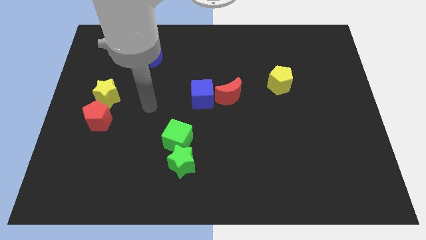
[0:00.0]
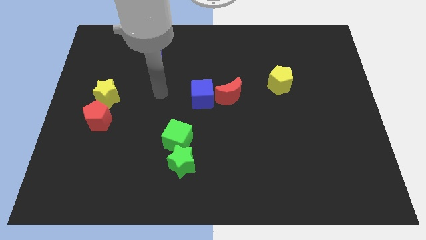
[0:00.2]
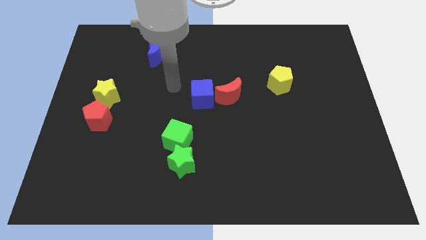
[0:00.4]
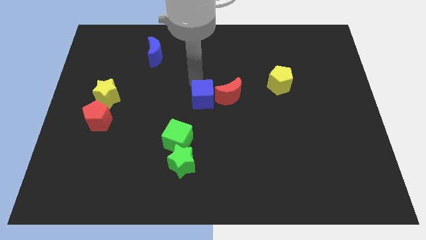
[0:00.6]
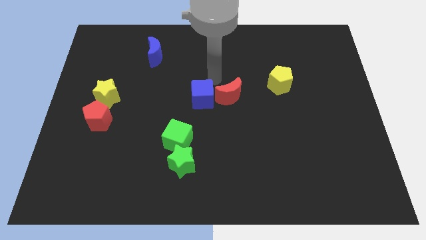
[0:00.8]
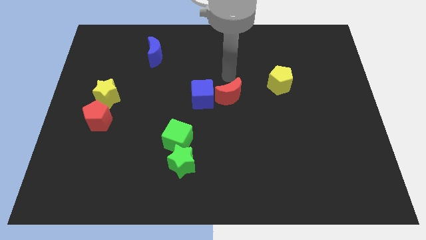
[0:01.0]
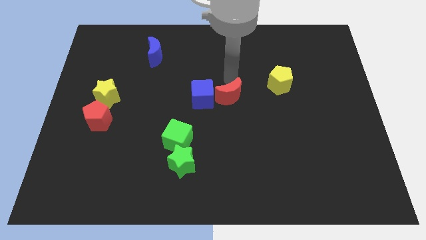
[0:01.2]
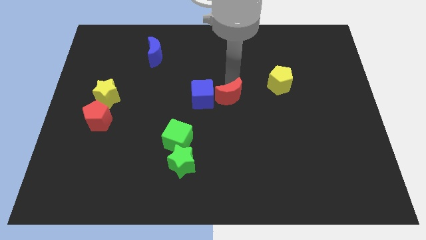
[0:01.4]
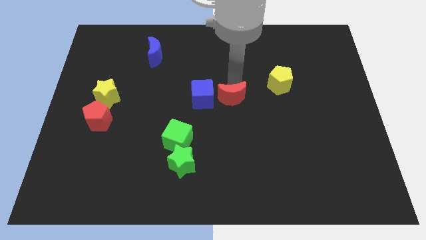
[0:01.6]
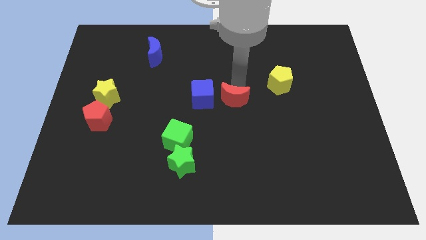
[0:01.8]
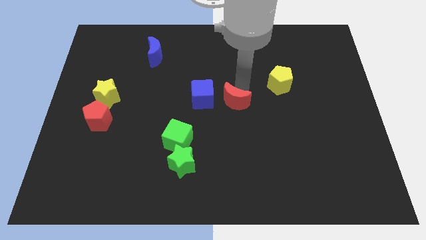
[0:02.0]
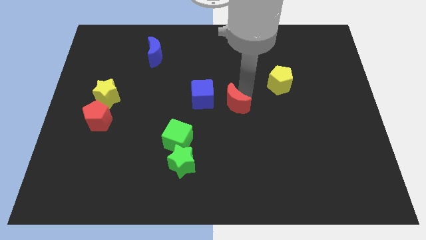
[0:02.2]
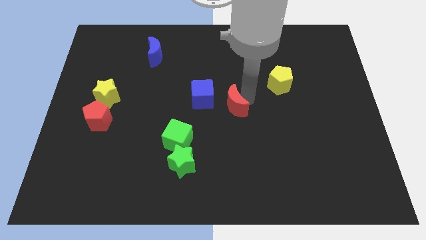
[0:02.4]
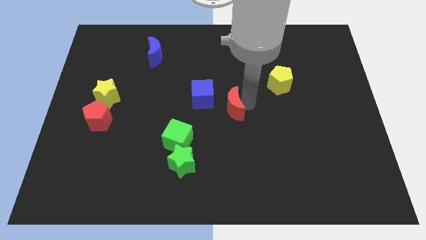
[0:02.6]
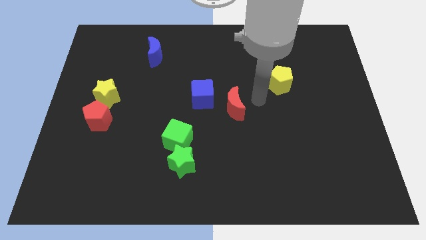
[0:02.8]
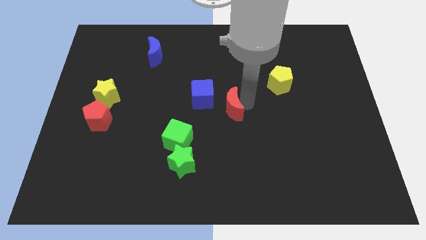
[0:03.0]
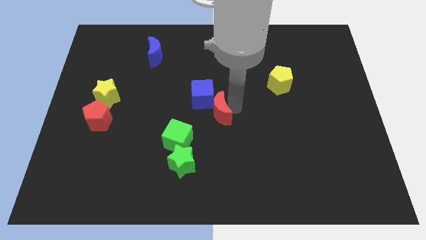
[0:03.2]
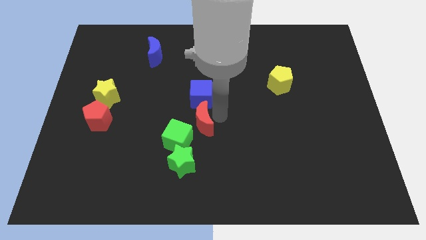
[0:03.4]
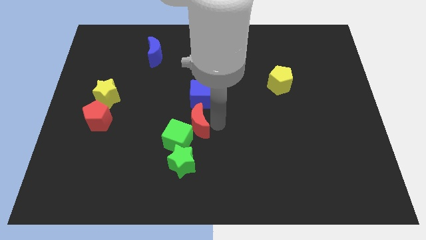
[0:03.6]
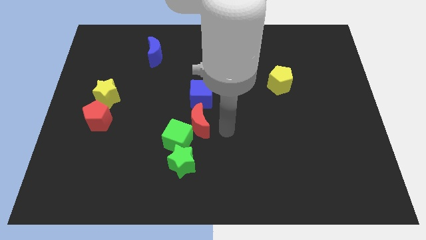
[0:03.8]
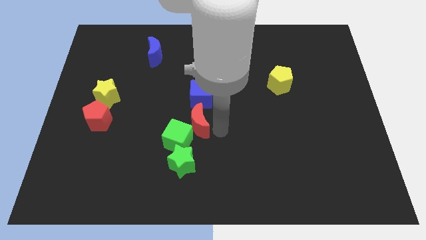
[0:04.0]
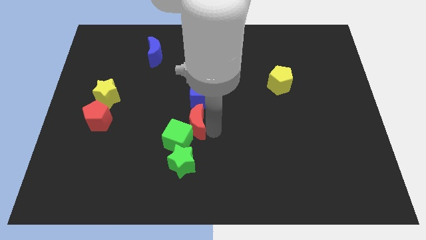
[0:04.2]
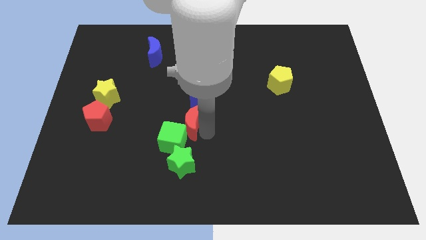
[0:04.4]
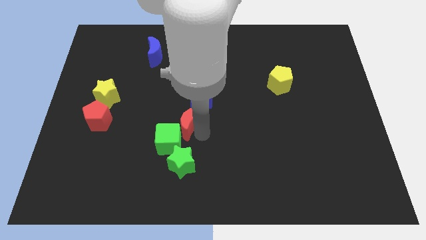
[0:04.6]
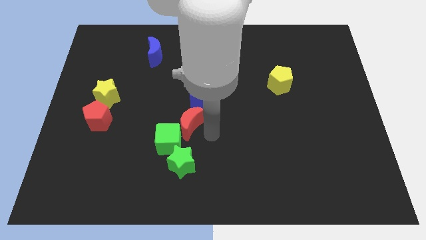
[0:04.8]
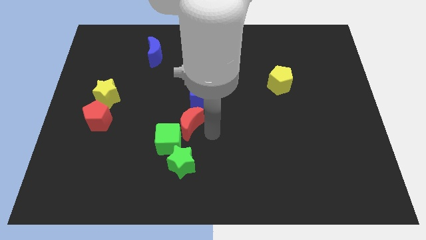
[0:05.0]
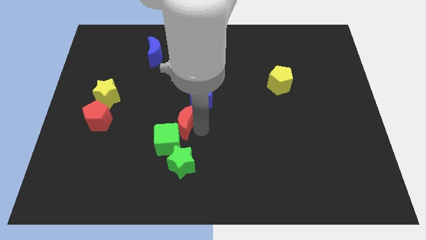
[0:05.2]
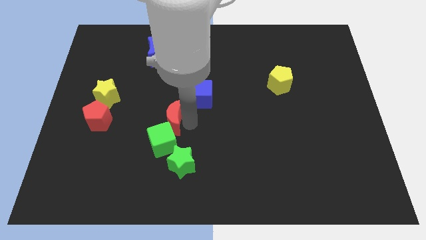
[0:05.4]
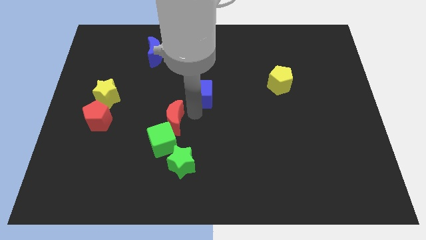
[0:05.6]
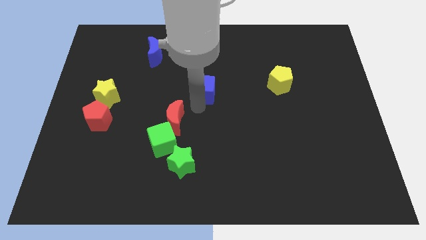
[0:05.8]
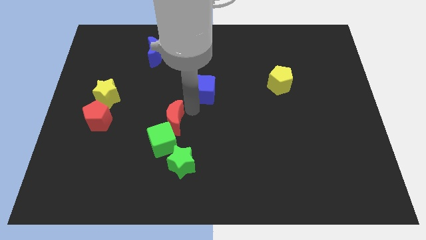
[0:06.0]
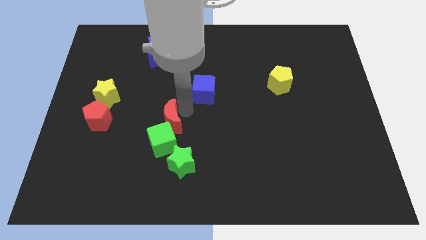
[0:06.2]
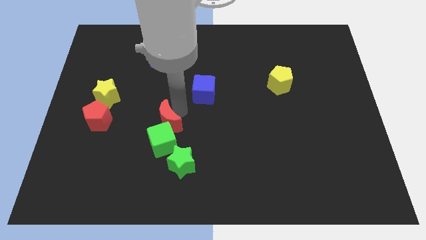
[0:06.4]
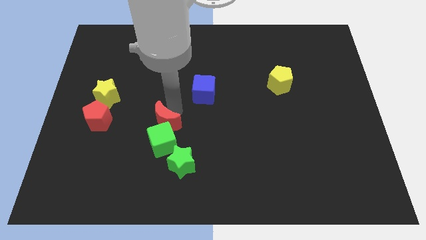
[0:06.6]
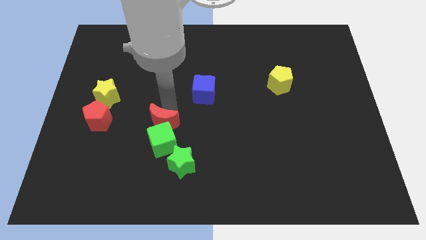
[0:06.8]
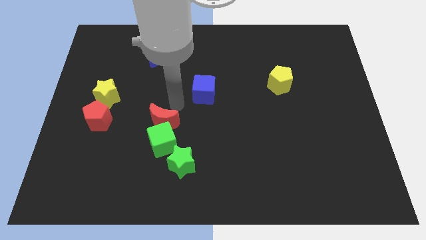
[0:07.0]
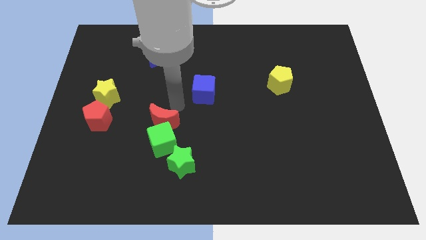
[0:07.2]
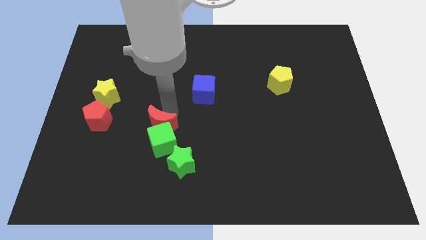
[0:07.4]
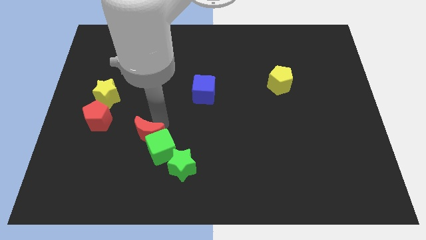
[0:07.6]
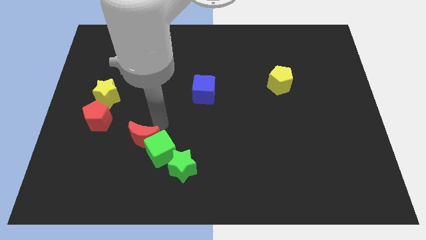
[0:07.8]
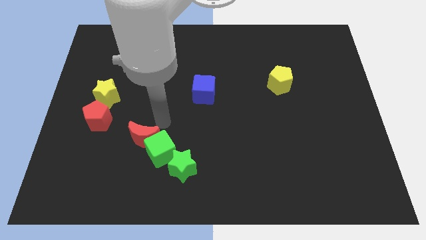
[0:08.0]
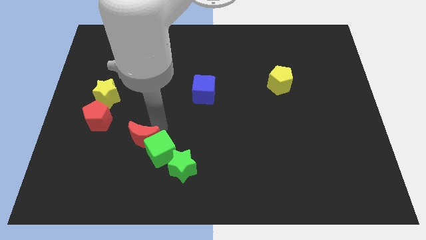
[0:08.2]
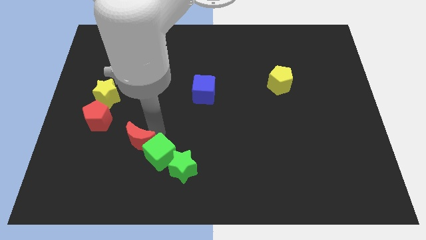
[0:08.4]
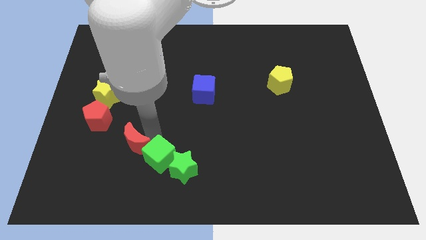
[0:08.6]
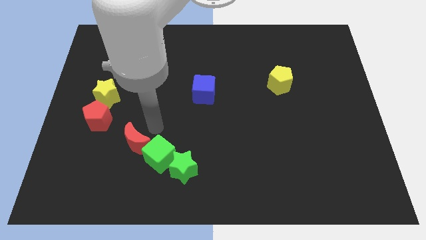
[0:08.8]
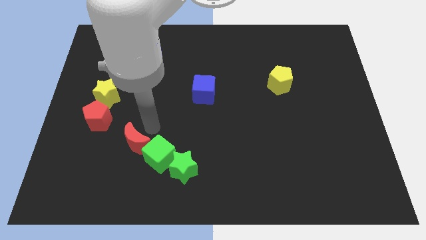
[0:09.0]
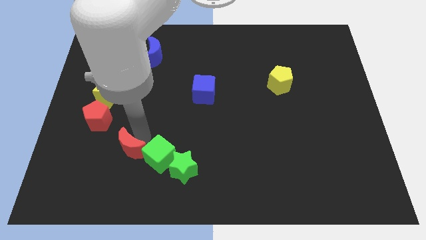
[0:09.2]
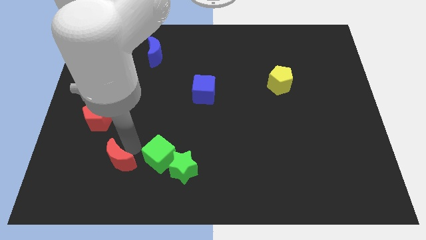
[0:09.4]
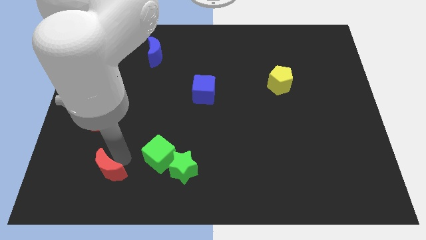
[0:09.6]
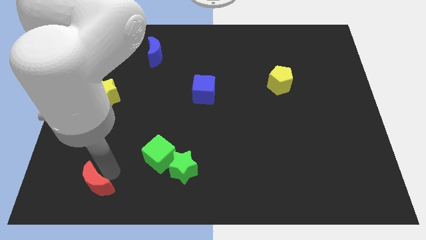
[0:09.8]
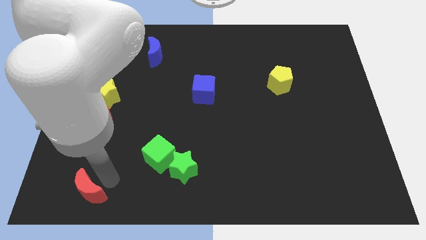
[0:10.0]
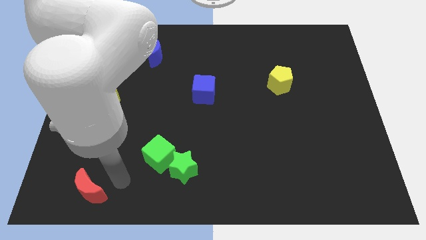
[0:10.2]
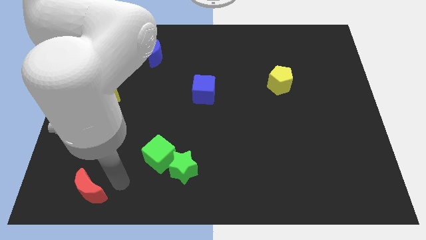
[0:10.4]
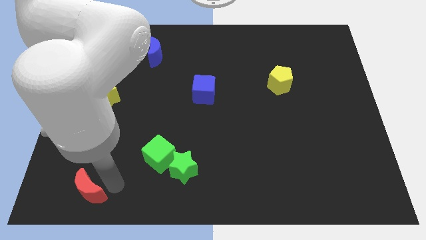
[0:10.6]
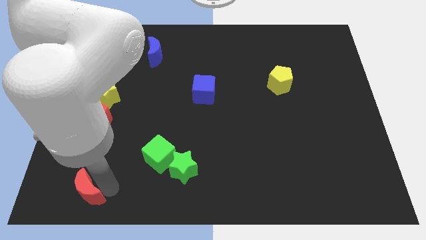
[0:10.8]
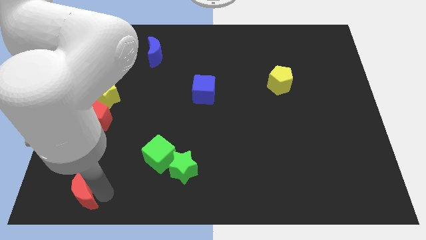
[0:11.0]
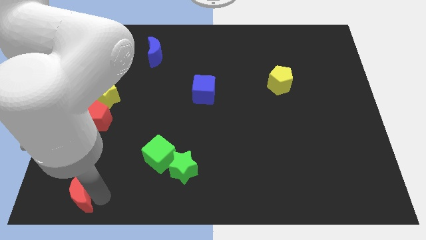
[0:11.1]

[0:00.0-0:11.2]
move the red moon to the bottom left of the board

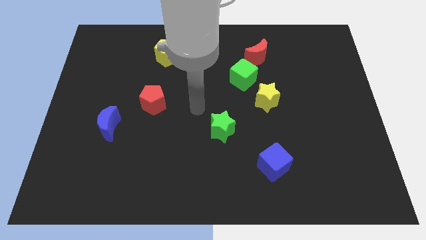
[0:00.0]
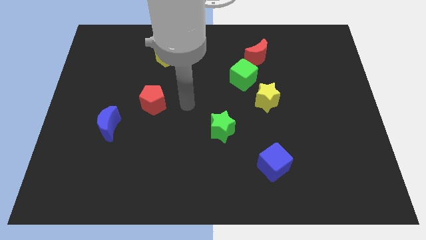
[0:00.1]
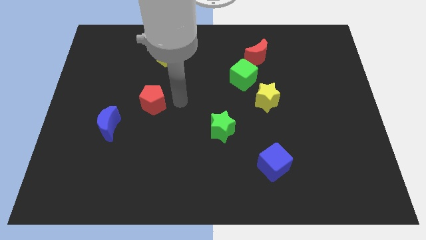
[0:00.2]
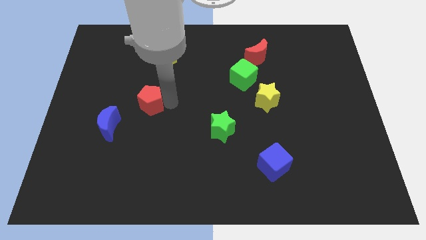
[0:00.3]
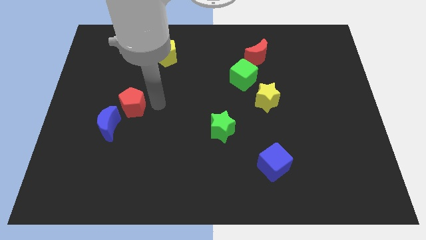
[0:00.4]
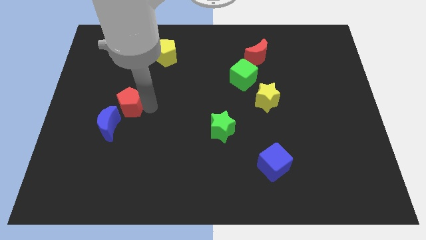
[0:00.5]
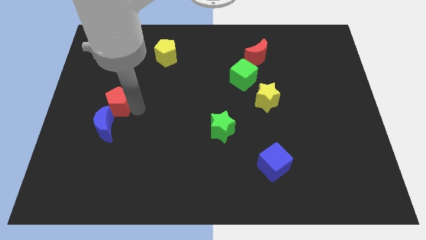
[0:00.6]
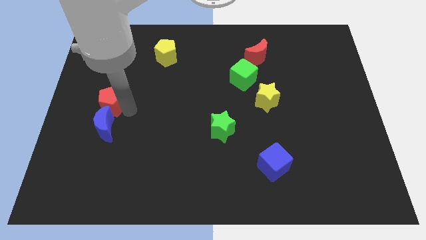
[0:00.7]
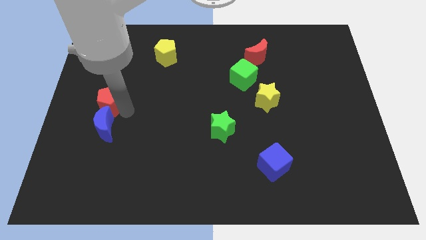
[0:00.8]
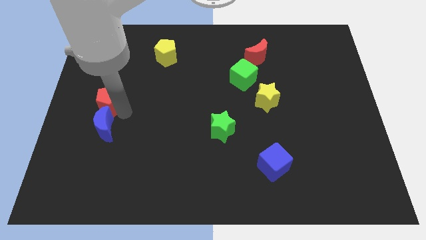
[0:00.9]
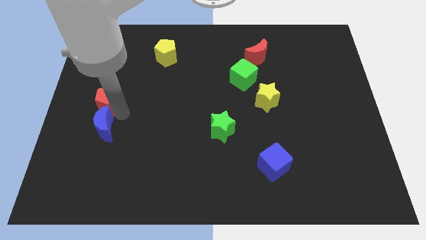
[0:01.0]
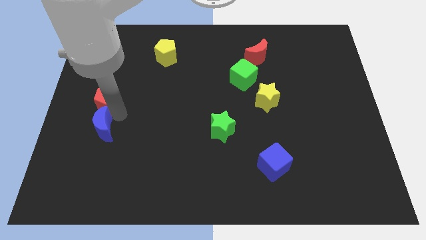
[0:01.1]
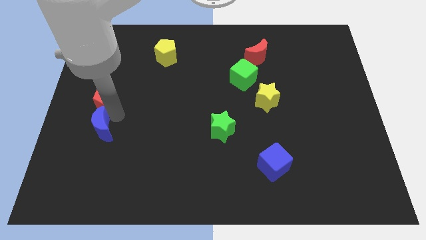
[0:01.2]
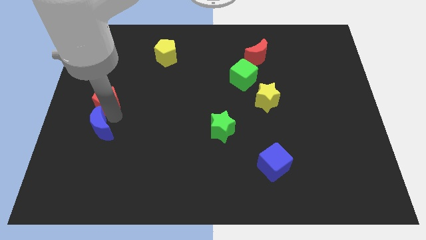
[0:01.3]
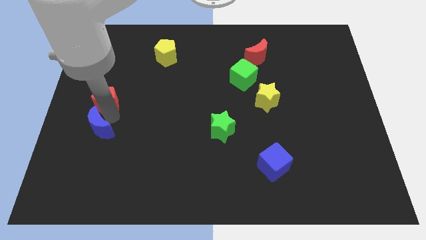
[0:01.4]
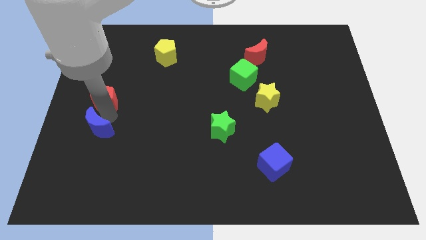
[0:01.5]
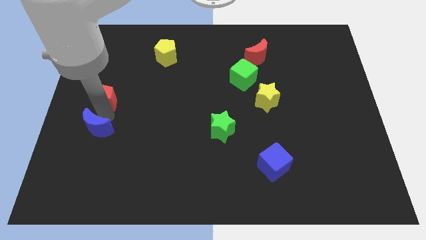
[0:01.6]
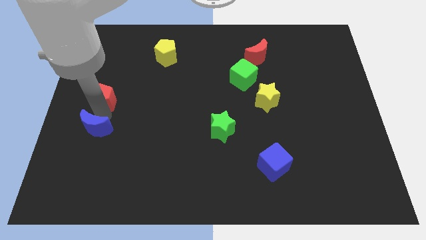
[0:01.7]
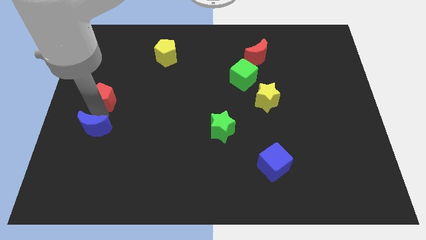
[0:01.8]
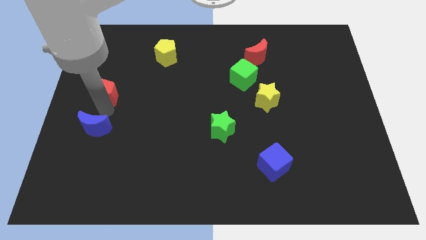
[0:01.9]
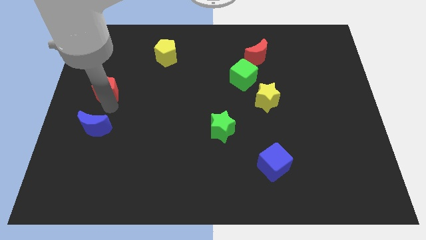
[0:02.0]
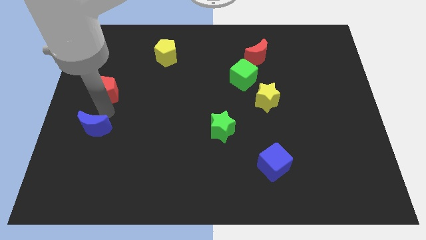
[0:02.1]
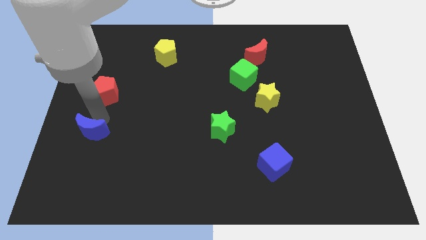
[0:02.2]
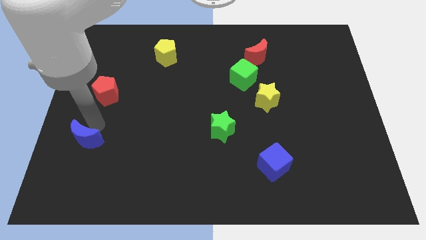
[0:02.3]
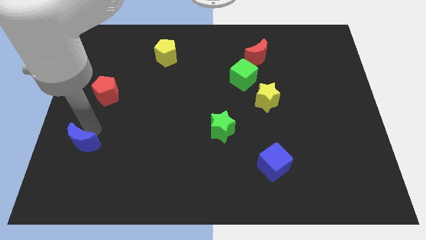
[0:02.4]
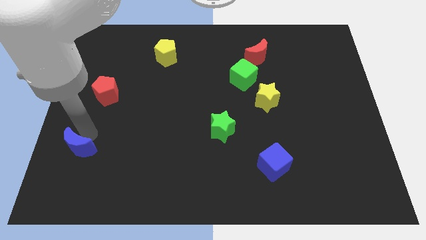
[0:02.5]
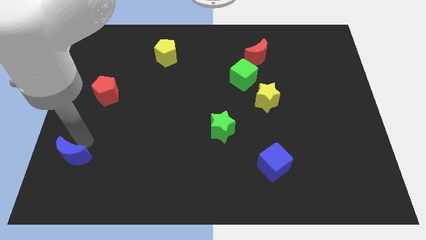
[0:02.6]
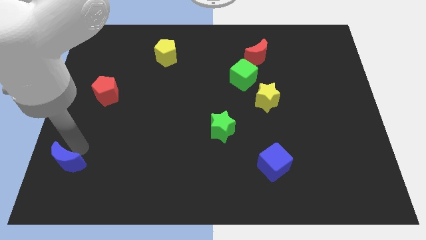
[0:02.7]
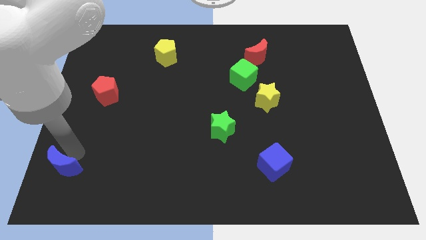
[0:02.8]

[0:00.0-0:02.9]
slide the blue moon to the lower left corner
